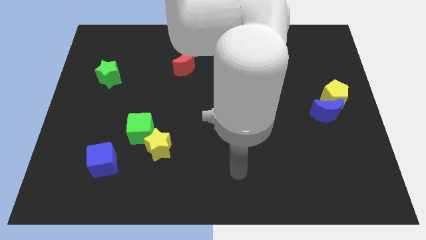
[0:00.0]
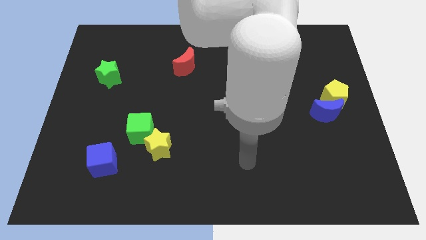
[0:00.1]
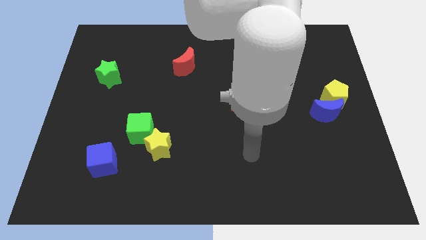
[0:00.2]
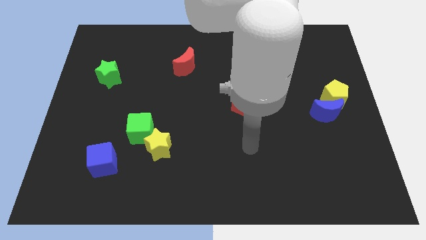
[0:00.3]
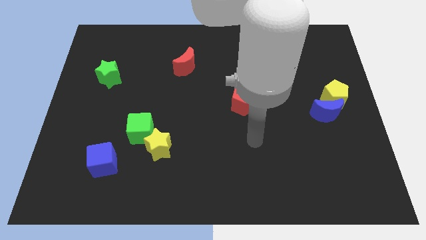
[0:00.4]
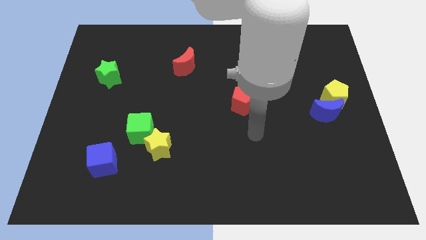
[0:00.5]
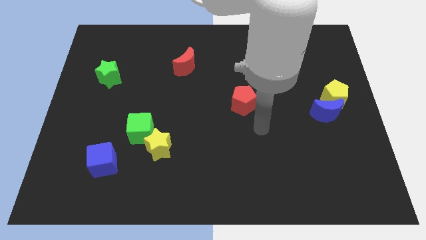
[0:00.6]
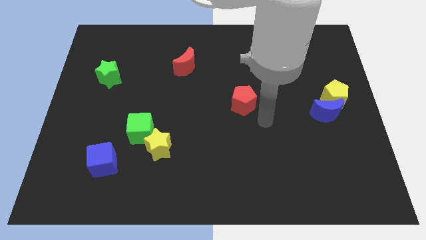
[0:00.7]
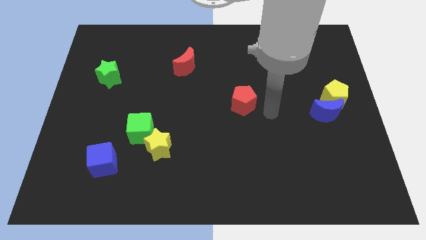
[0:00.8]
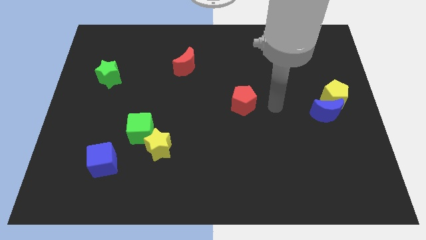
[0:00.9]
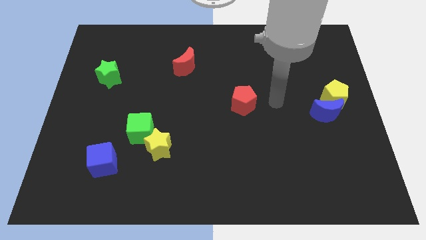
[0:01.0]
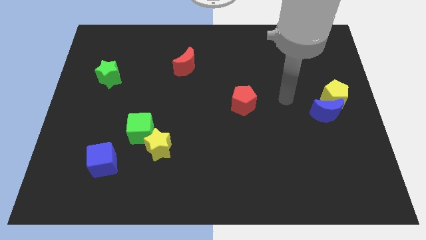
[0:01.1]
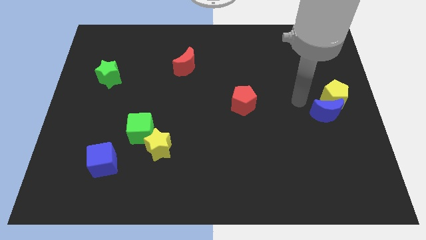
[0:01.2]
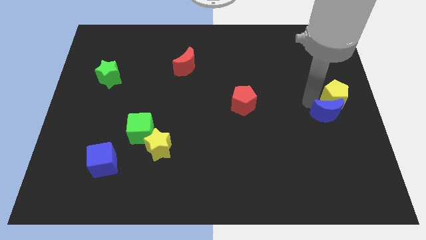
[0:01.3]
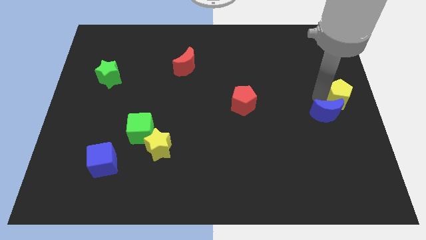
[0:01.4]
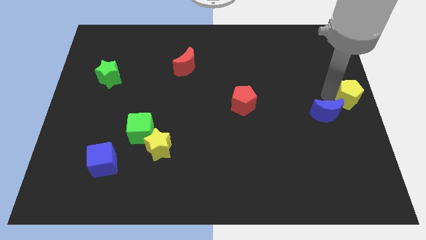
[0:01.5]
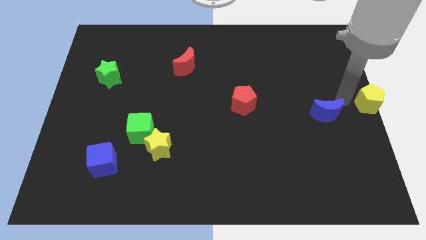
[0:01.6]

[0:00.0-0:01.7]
move the blue moon away from the yellow pentagon

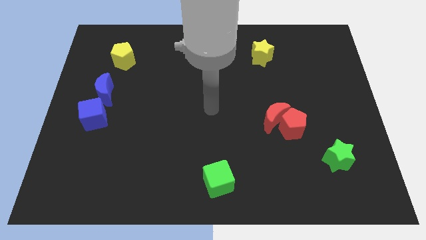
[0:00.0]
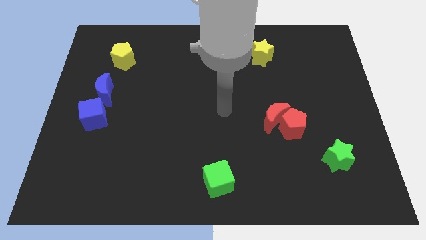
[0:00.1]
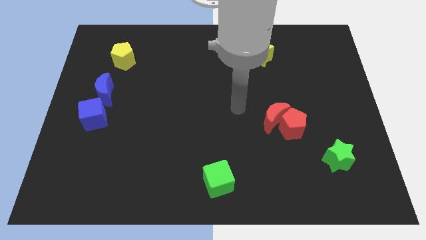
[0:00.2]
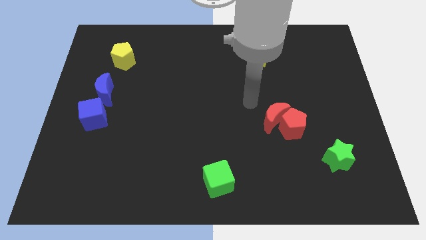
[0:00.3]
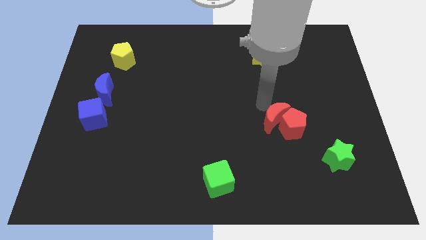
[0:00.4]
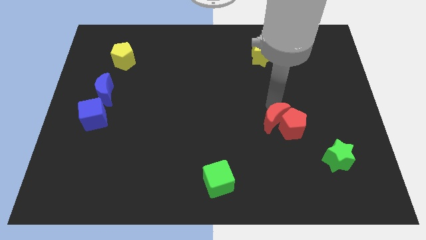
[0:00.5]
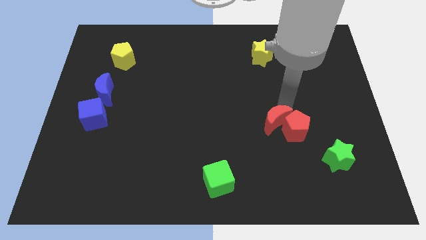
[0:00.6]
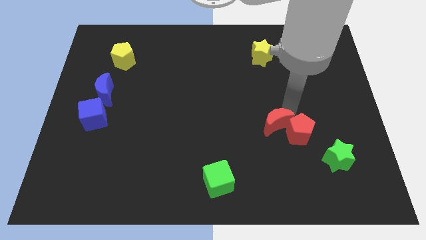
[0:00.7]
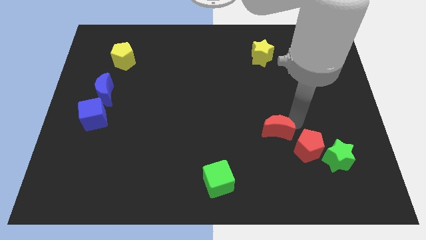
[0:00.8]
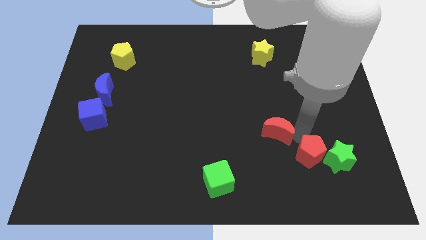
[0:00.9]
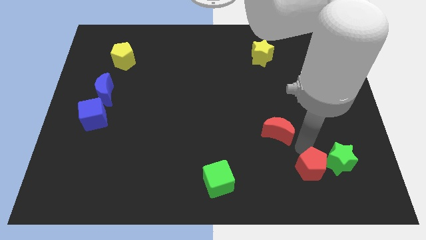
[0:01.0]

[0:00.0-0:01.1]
move the red moon away from the red pentagon

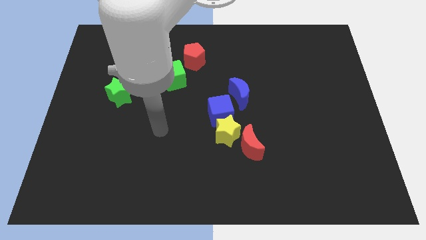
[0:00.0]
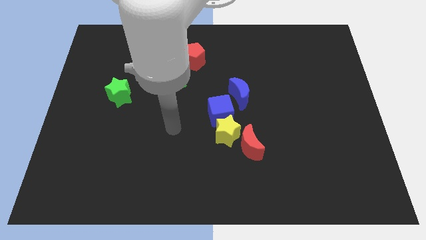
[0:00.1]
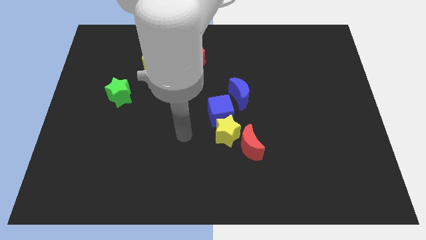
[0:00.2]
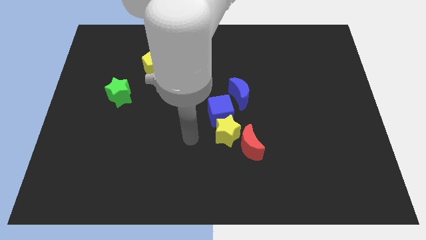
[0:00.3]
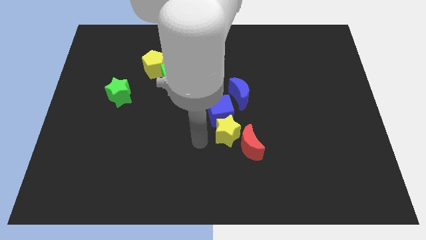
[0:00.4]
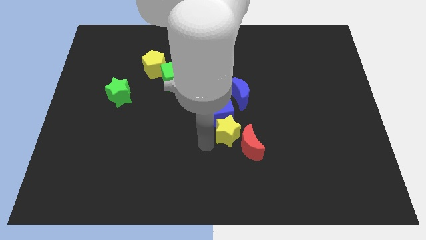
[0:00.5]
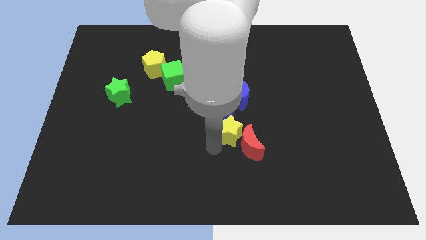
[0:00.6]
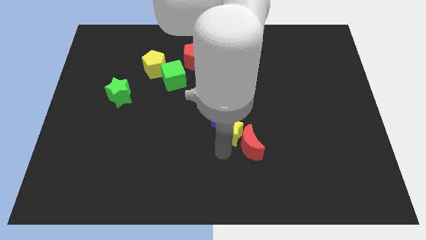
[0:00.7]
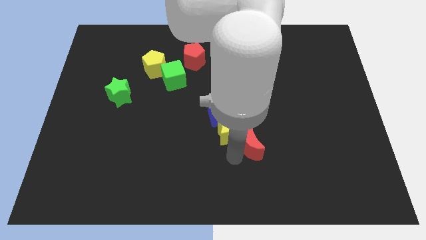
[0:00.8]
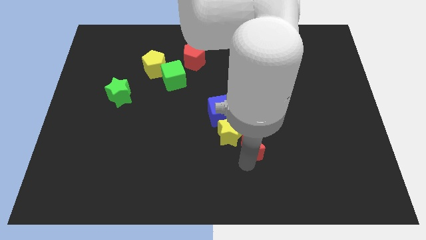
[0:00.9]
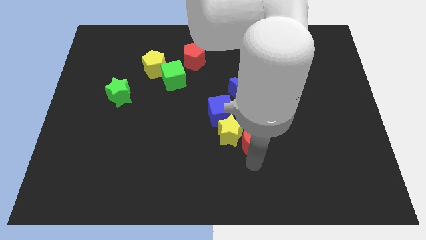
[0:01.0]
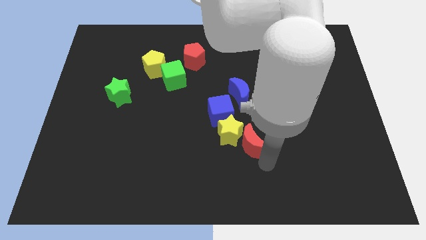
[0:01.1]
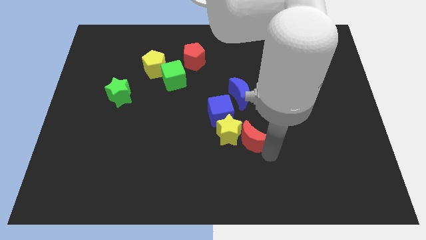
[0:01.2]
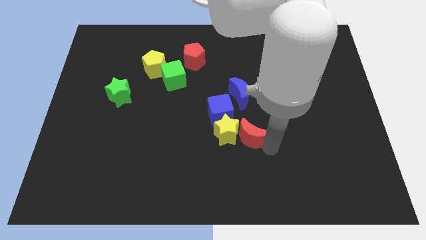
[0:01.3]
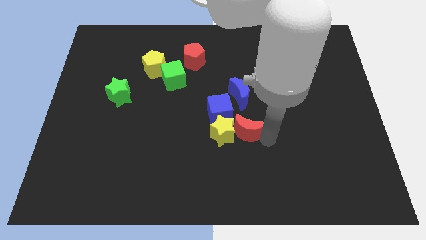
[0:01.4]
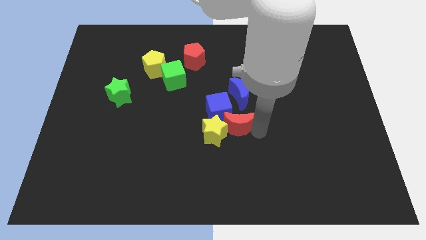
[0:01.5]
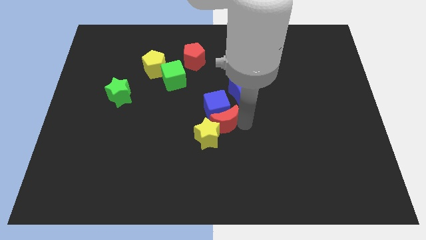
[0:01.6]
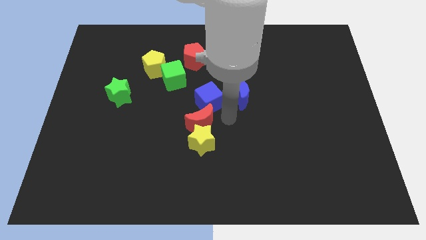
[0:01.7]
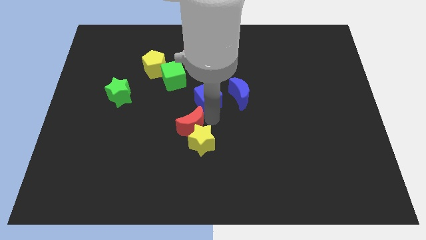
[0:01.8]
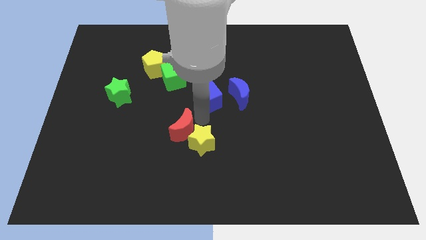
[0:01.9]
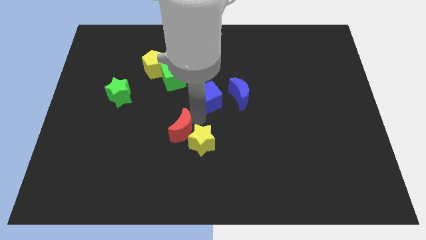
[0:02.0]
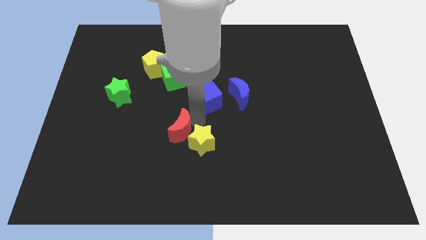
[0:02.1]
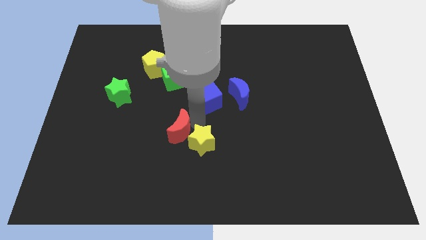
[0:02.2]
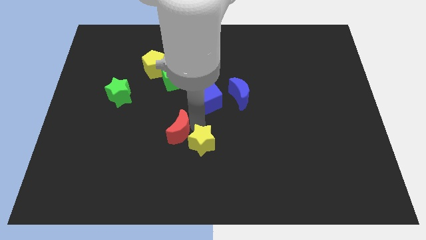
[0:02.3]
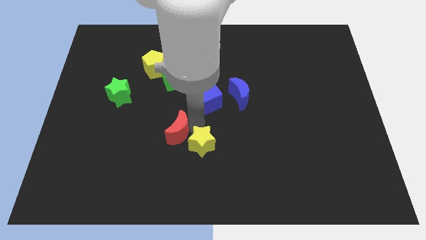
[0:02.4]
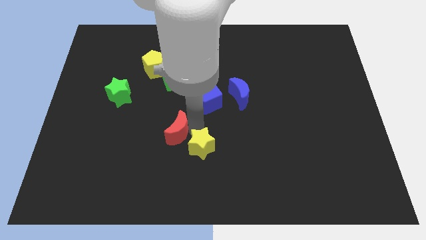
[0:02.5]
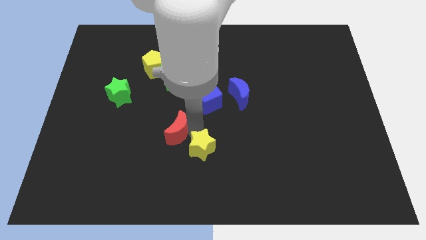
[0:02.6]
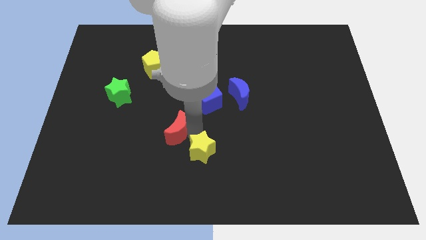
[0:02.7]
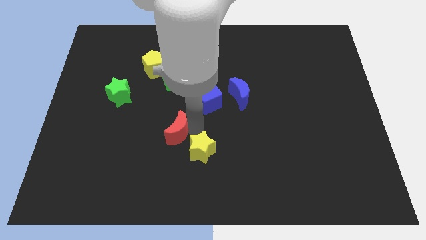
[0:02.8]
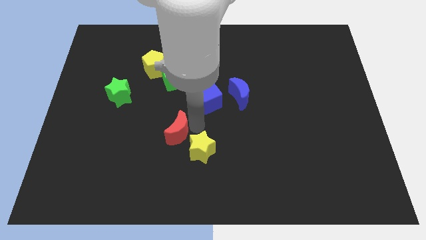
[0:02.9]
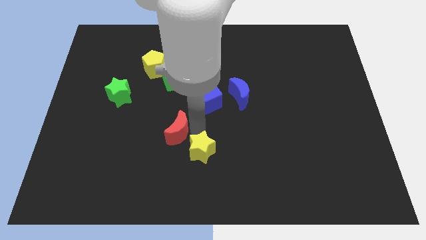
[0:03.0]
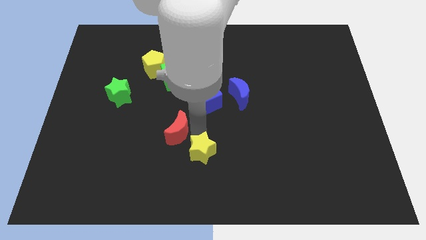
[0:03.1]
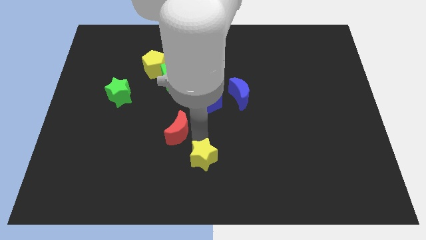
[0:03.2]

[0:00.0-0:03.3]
pull the yellow star apart from the blue cube and red moon

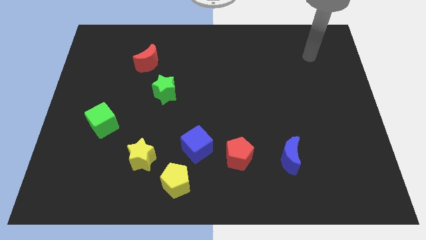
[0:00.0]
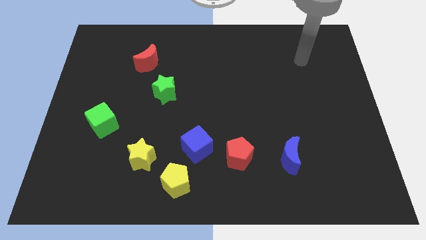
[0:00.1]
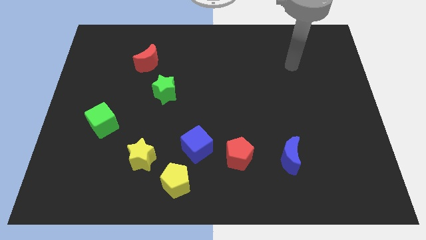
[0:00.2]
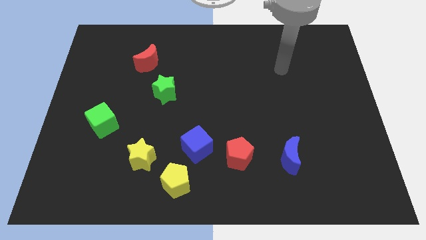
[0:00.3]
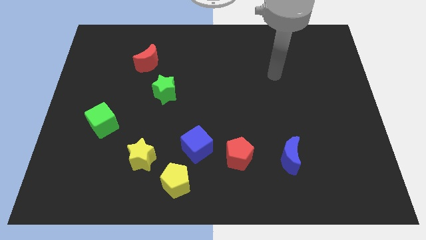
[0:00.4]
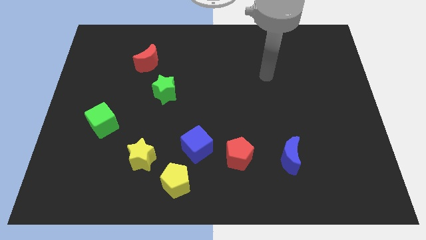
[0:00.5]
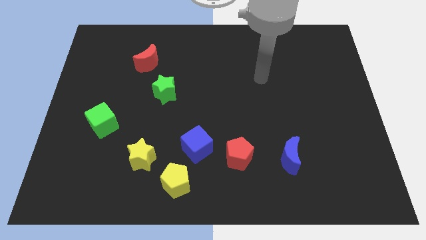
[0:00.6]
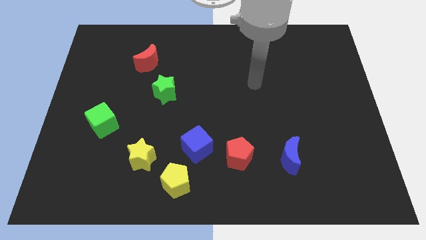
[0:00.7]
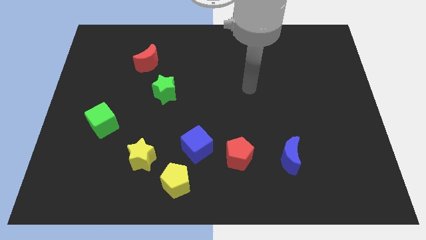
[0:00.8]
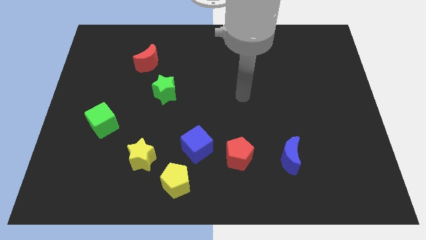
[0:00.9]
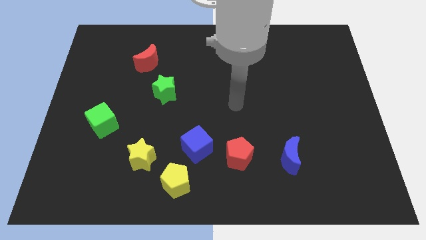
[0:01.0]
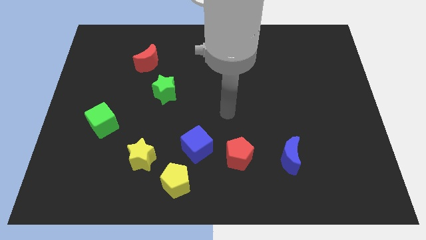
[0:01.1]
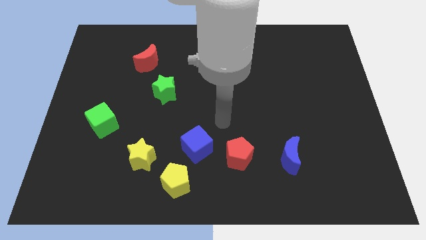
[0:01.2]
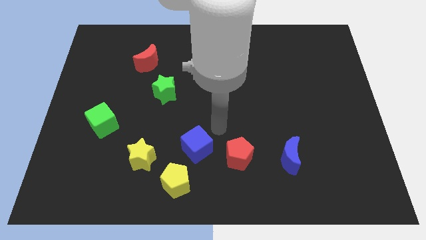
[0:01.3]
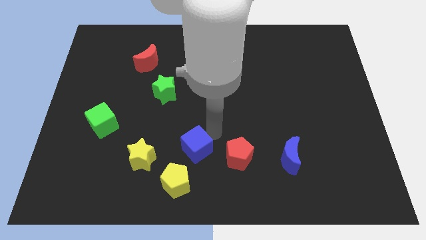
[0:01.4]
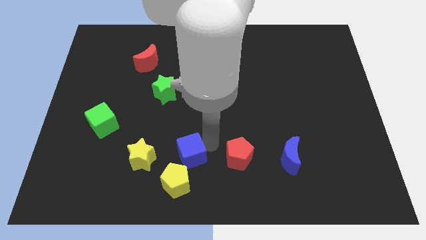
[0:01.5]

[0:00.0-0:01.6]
pull the red pentagon apart from the blue cube

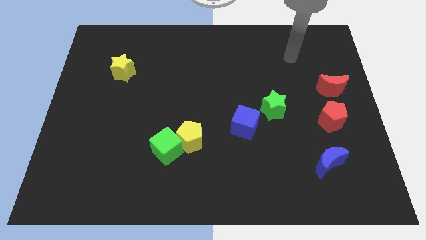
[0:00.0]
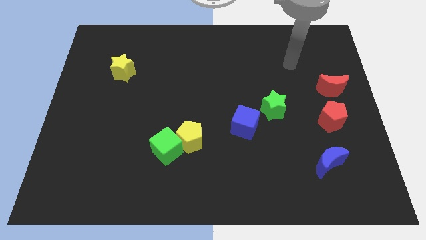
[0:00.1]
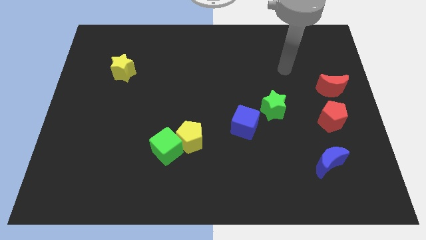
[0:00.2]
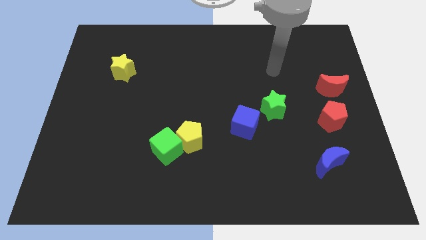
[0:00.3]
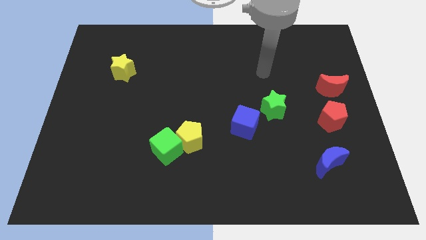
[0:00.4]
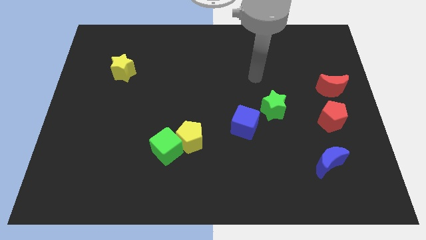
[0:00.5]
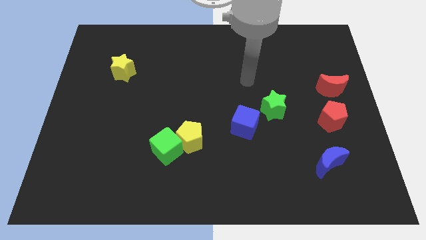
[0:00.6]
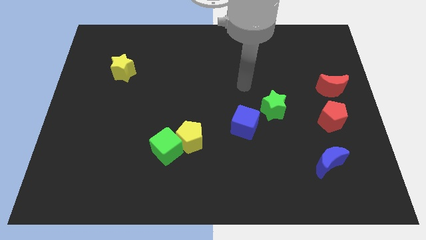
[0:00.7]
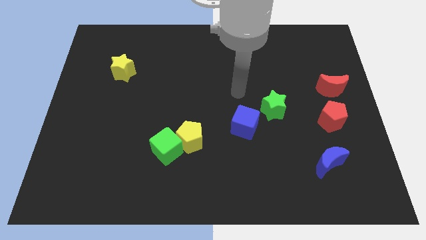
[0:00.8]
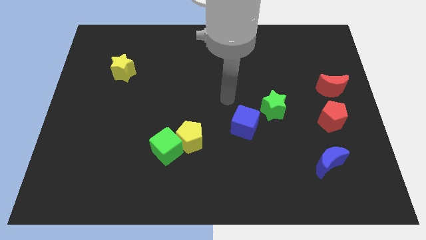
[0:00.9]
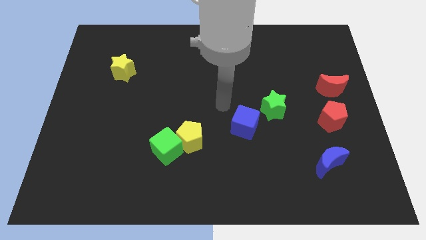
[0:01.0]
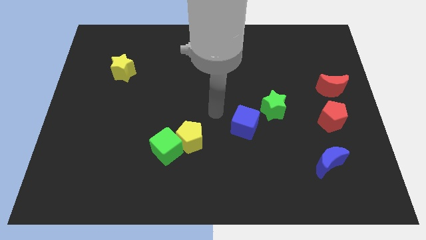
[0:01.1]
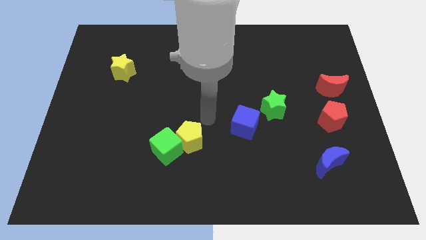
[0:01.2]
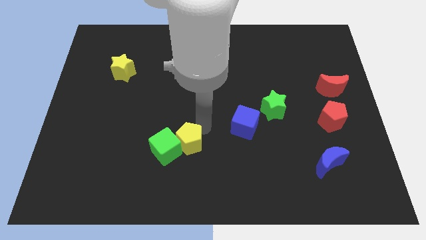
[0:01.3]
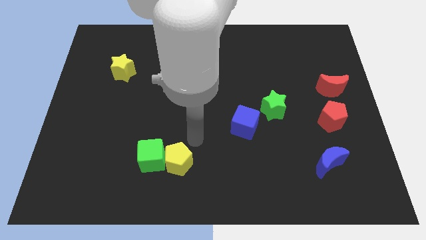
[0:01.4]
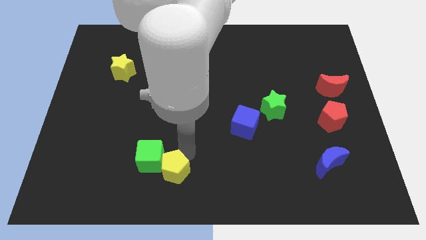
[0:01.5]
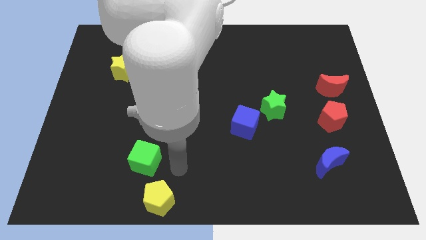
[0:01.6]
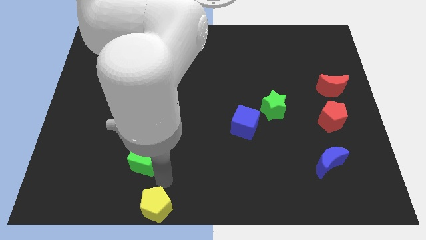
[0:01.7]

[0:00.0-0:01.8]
pull the green cube apart from the yellow pentagon
